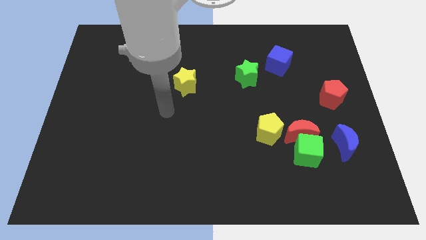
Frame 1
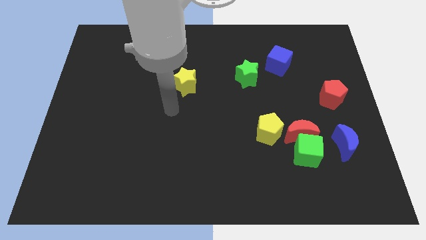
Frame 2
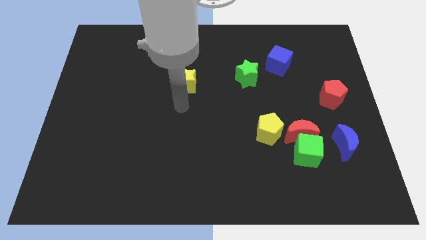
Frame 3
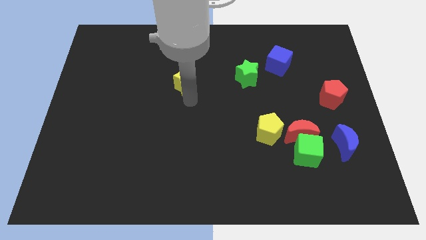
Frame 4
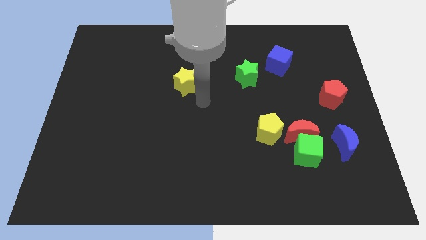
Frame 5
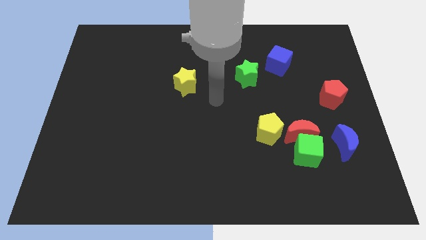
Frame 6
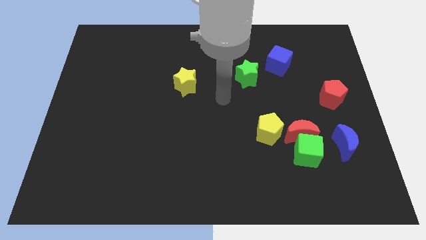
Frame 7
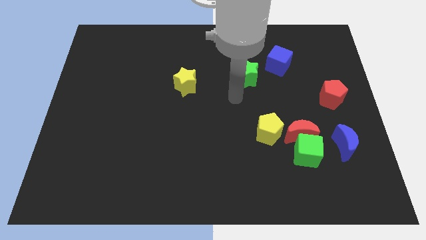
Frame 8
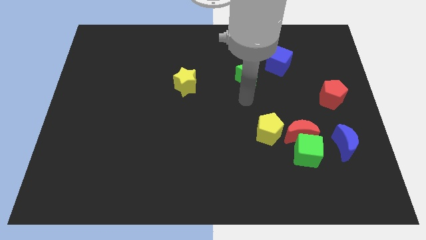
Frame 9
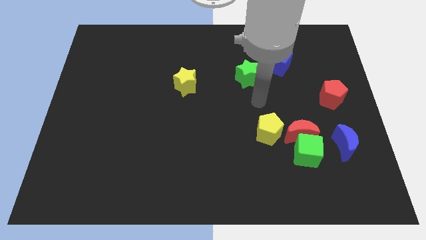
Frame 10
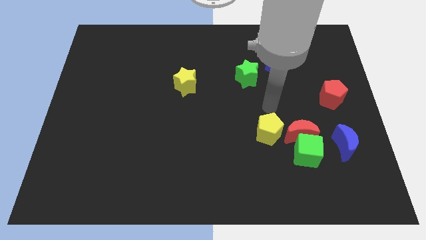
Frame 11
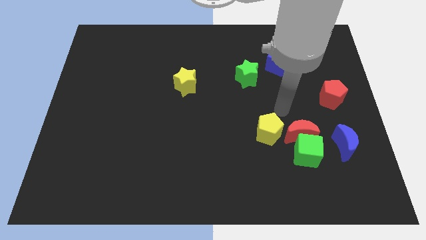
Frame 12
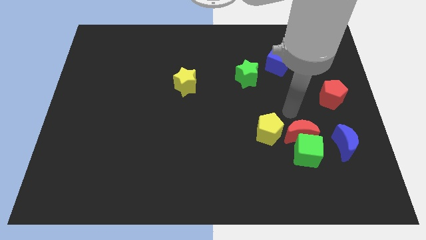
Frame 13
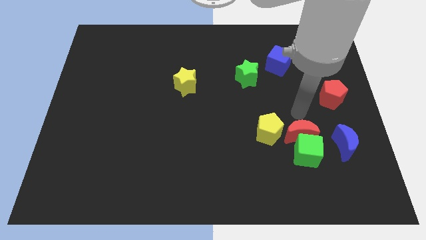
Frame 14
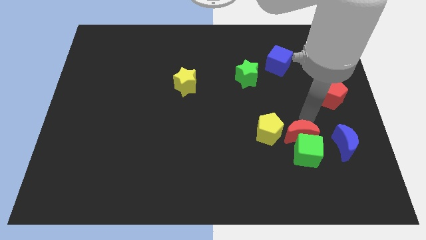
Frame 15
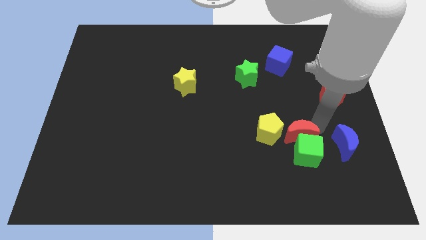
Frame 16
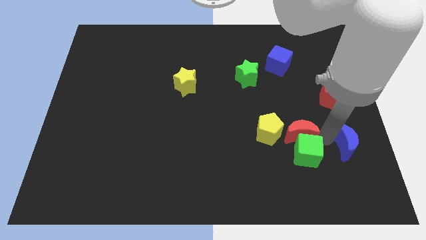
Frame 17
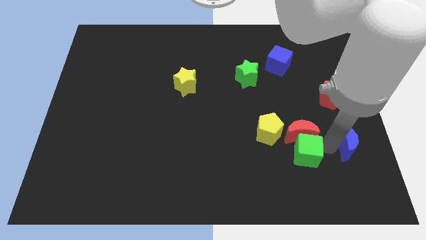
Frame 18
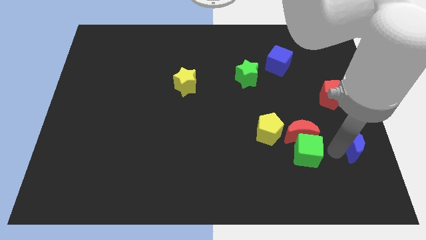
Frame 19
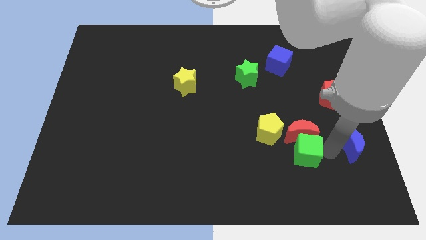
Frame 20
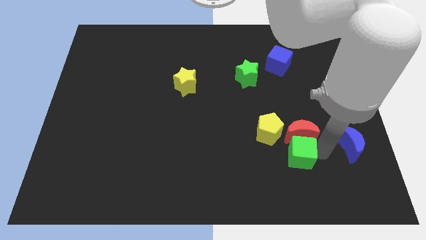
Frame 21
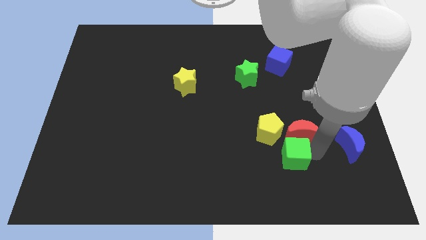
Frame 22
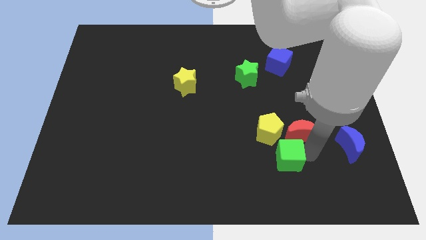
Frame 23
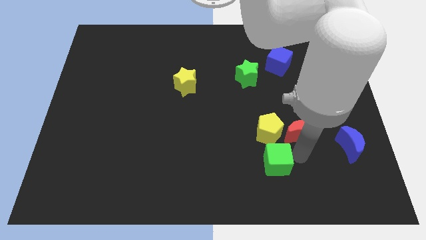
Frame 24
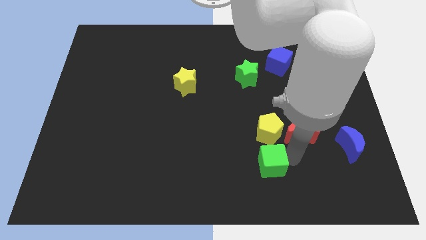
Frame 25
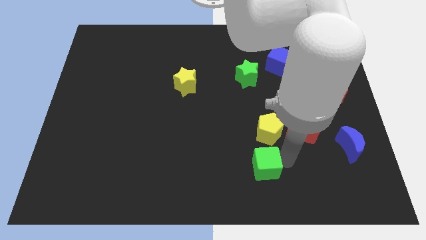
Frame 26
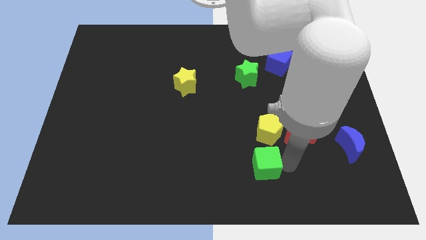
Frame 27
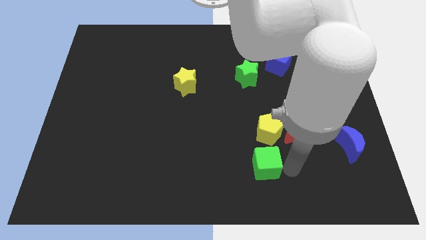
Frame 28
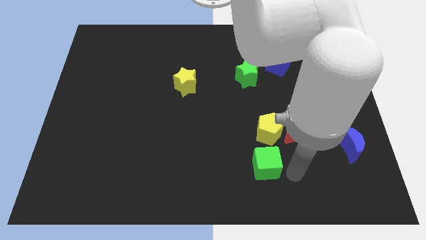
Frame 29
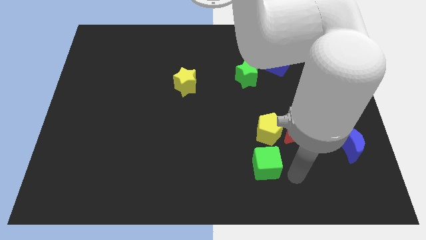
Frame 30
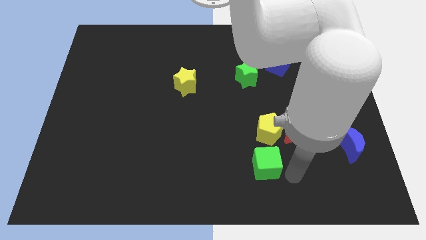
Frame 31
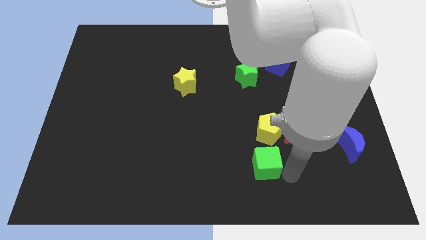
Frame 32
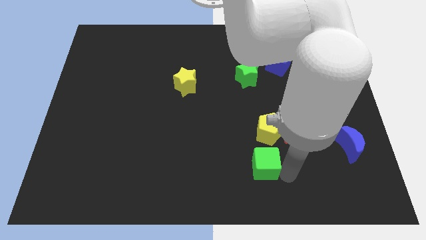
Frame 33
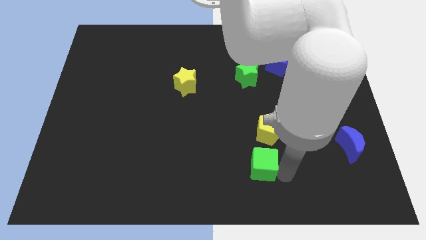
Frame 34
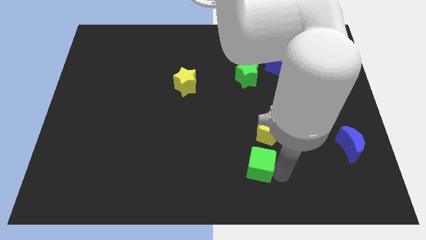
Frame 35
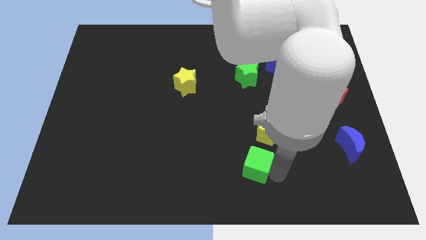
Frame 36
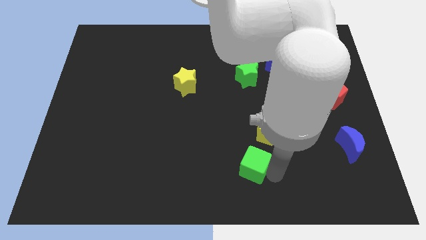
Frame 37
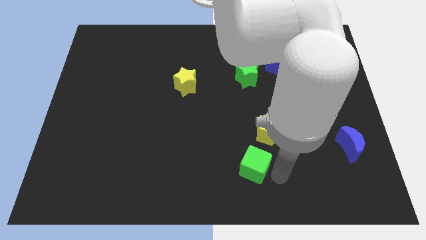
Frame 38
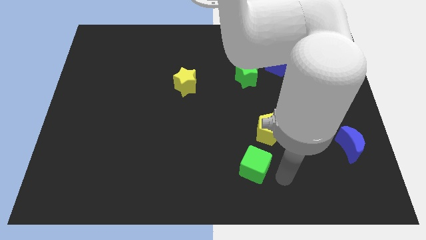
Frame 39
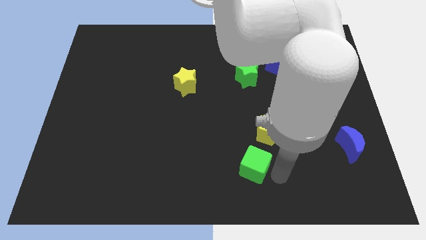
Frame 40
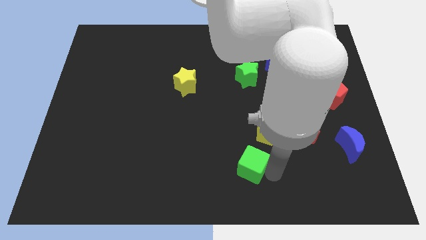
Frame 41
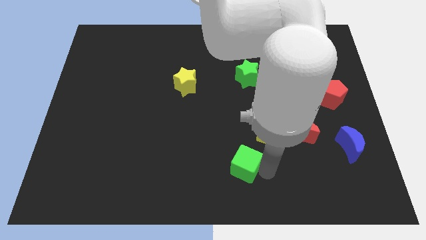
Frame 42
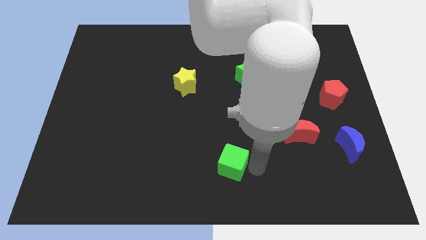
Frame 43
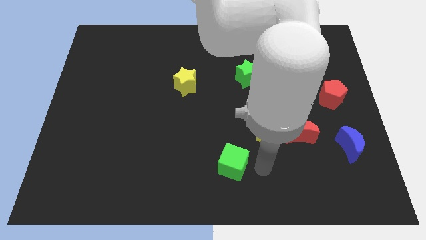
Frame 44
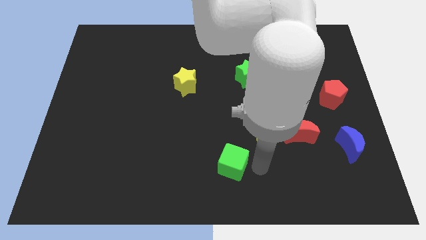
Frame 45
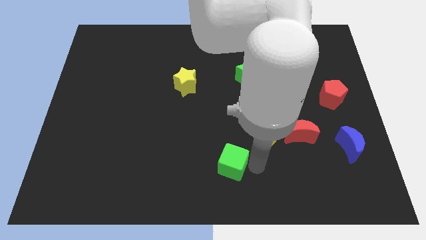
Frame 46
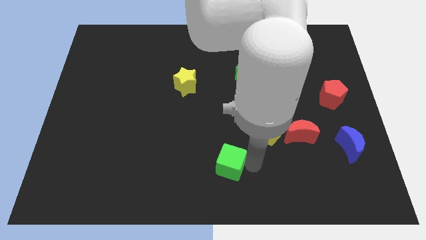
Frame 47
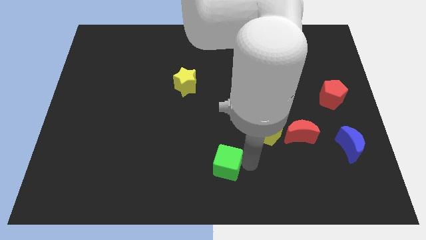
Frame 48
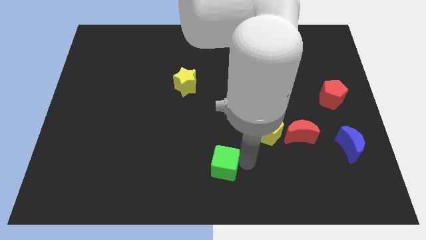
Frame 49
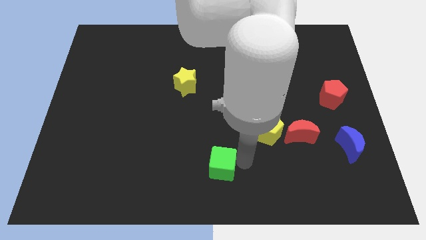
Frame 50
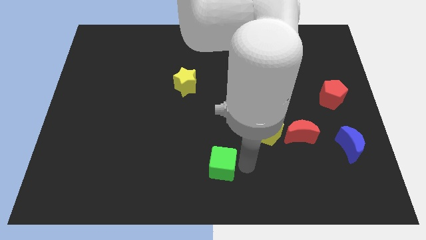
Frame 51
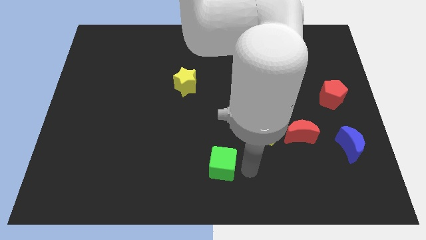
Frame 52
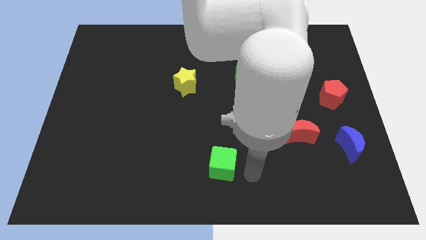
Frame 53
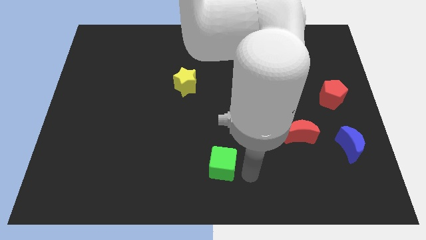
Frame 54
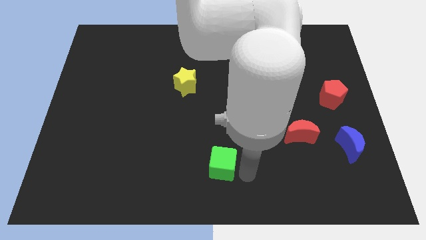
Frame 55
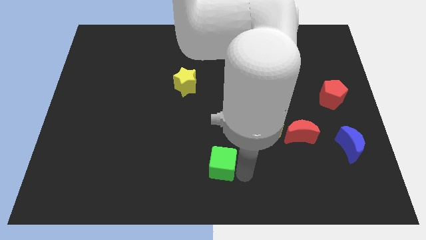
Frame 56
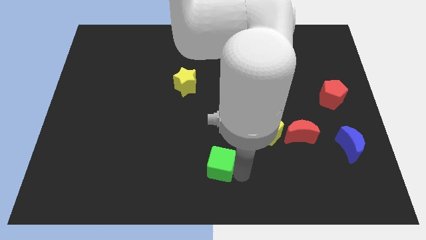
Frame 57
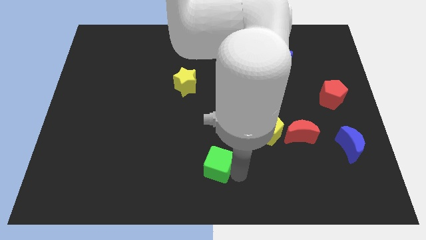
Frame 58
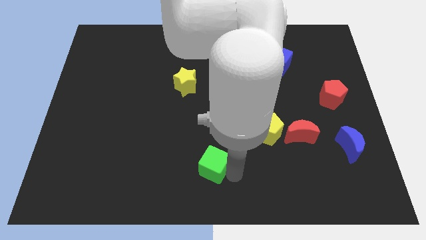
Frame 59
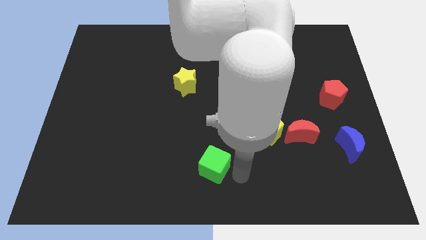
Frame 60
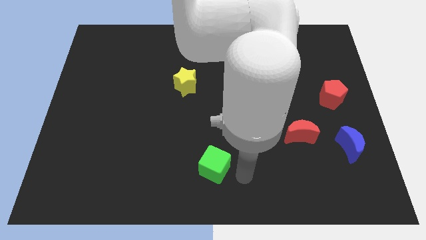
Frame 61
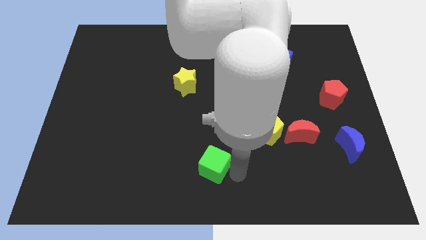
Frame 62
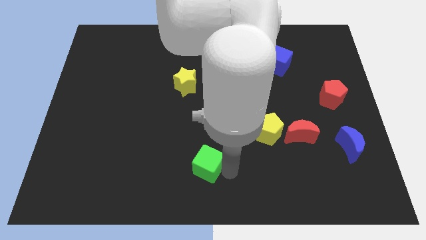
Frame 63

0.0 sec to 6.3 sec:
push the green cube to the left

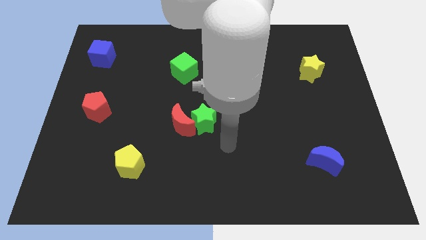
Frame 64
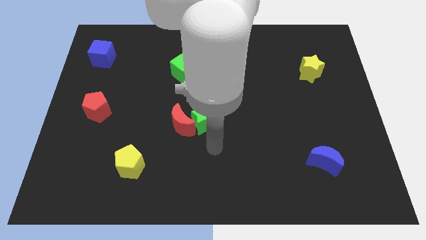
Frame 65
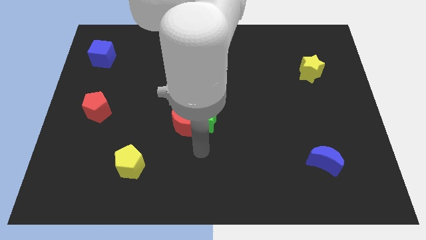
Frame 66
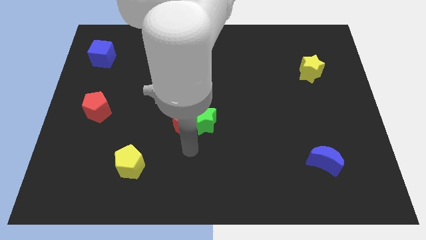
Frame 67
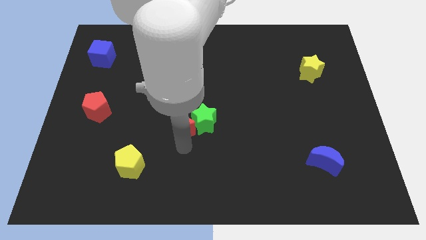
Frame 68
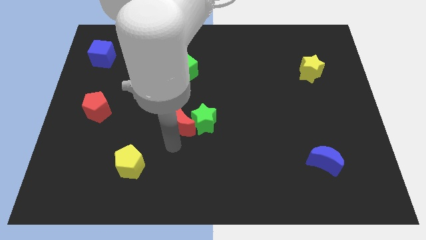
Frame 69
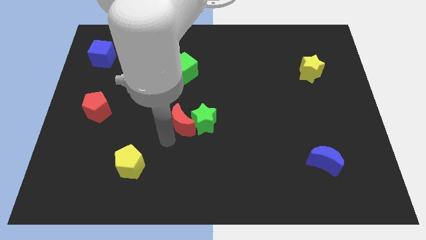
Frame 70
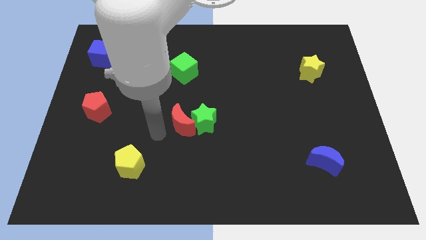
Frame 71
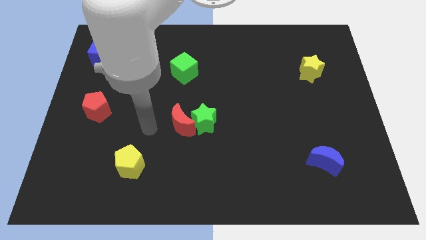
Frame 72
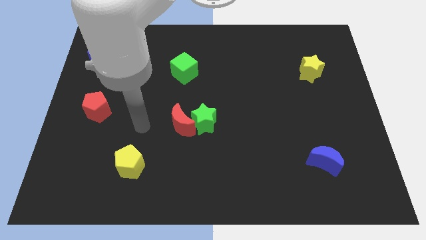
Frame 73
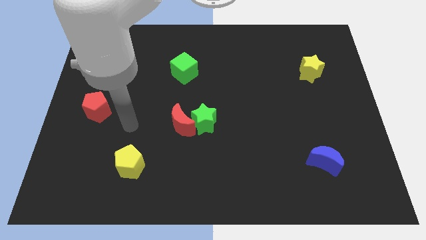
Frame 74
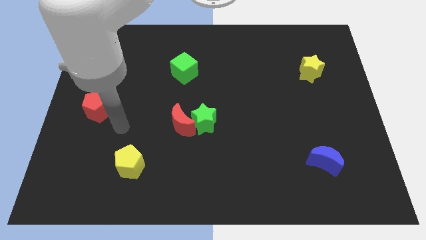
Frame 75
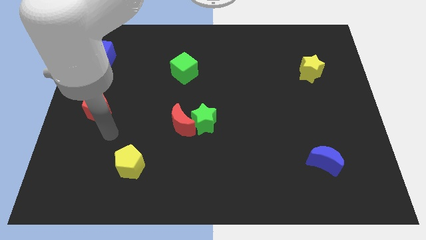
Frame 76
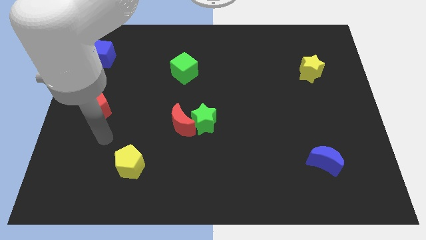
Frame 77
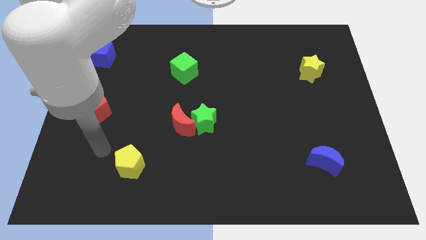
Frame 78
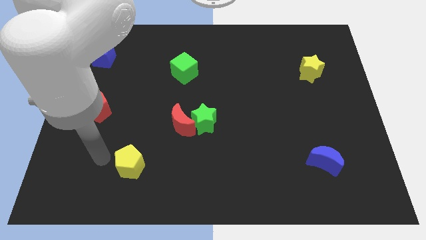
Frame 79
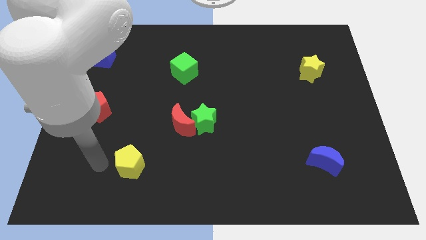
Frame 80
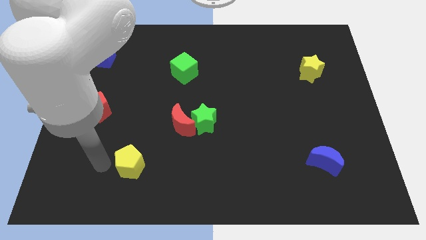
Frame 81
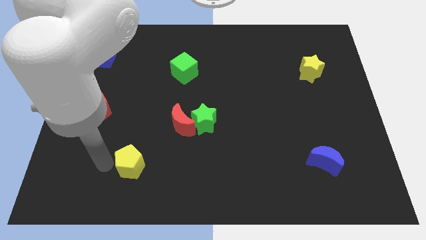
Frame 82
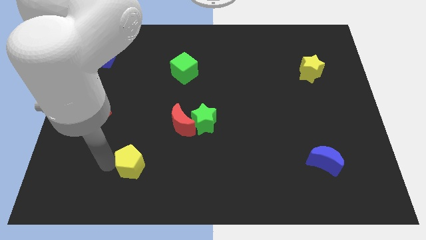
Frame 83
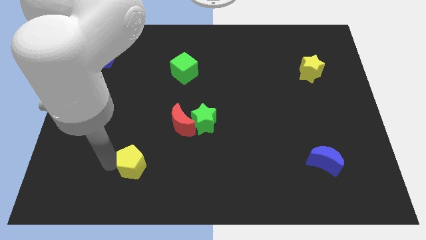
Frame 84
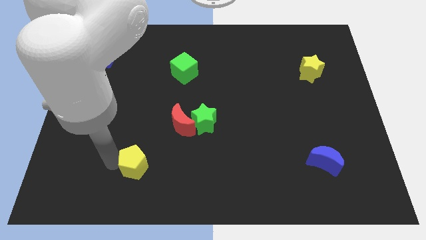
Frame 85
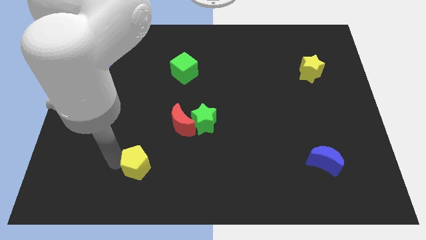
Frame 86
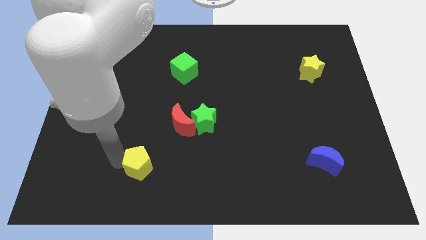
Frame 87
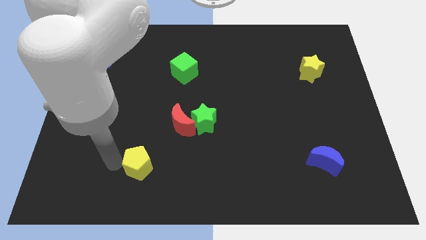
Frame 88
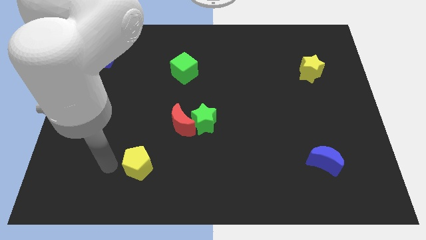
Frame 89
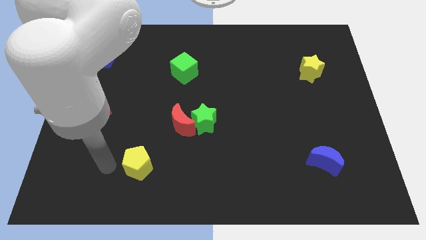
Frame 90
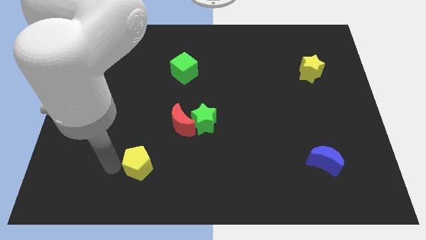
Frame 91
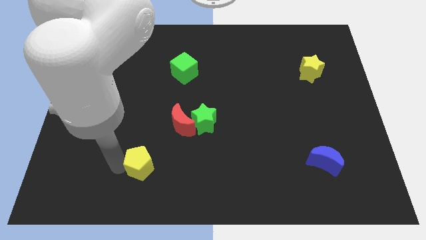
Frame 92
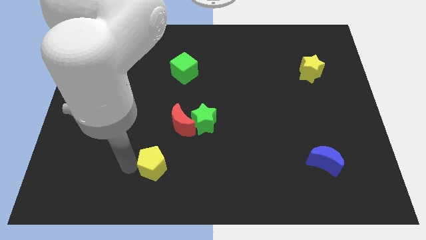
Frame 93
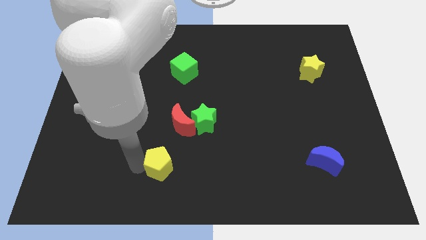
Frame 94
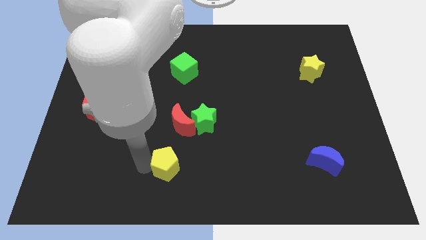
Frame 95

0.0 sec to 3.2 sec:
move the yellow pentagon a little to the right
